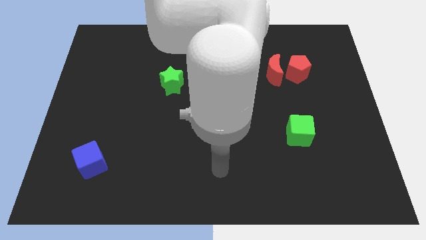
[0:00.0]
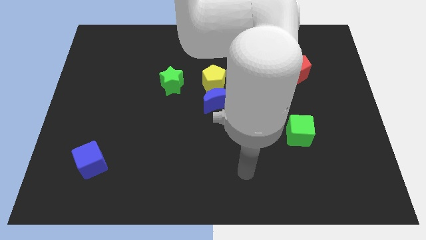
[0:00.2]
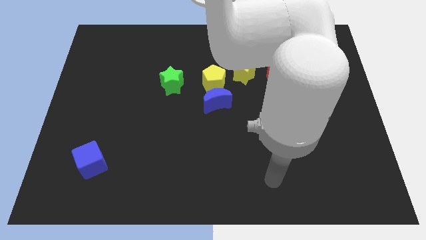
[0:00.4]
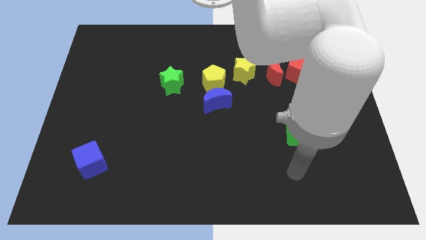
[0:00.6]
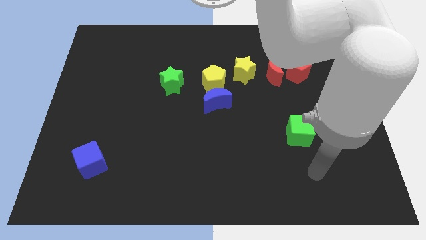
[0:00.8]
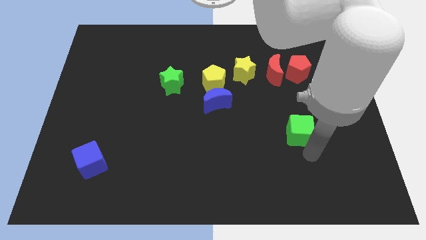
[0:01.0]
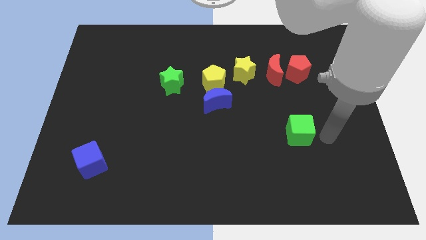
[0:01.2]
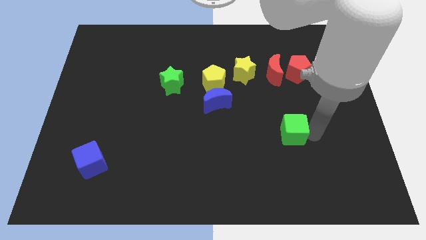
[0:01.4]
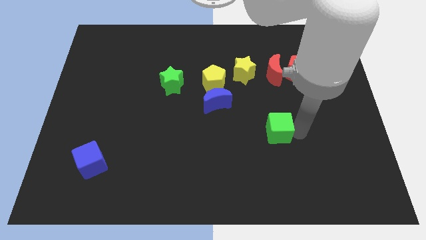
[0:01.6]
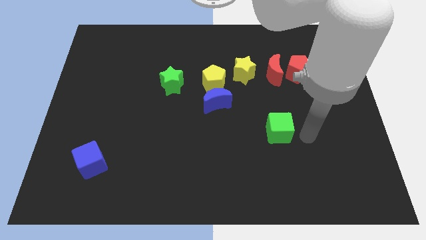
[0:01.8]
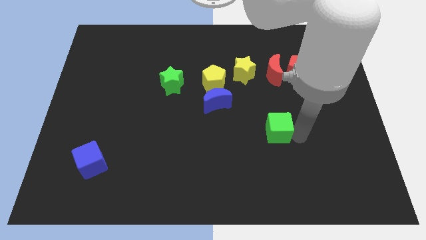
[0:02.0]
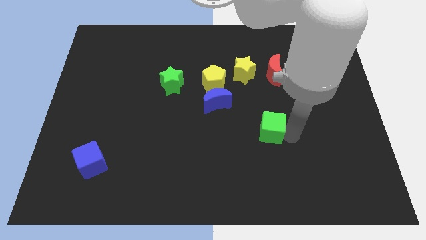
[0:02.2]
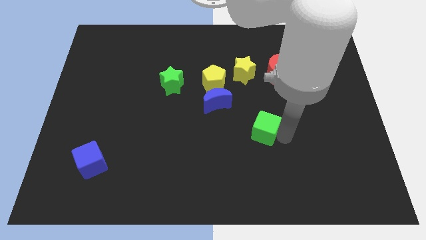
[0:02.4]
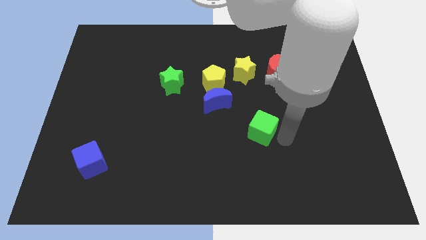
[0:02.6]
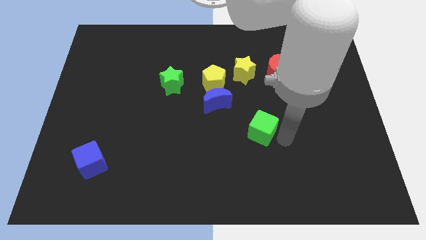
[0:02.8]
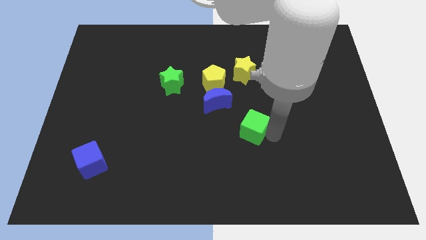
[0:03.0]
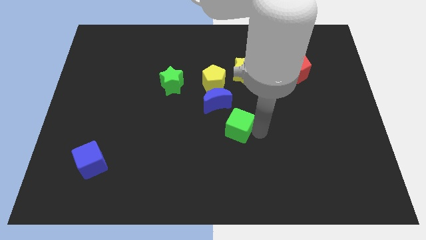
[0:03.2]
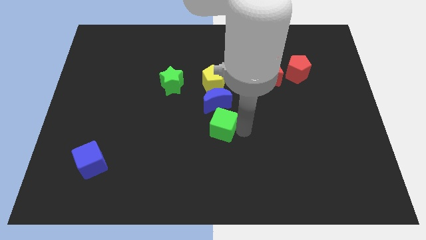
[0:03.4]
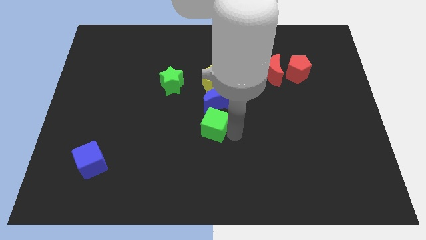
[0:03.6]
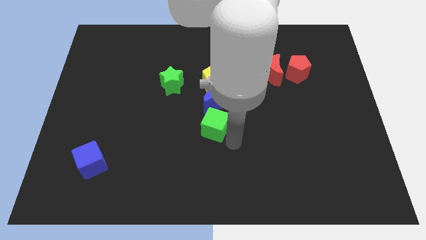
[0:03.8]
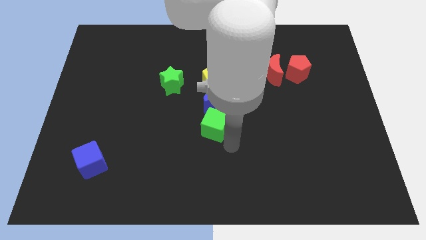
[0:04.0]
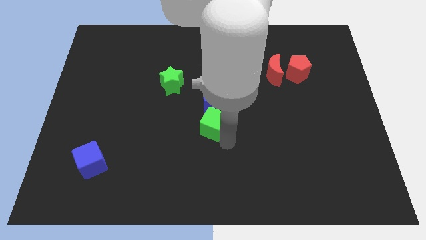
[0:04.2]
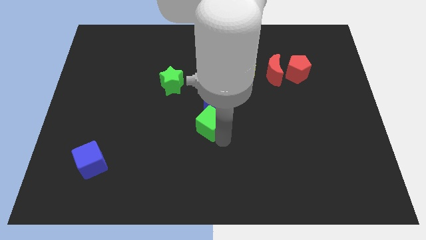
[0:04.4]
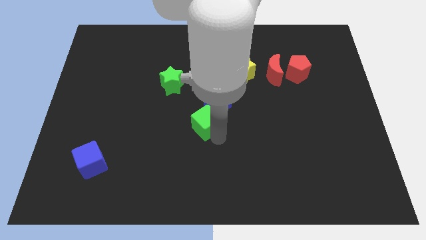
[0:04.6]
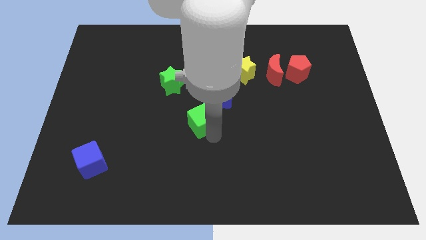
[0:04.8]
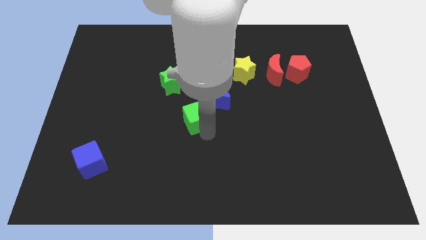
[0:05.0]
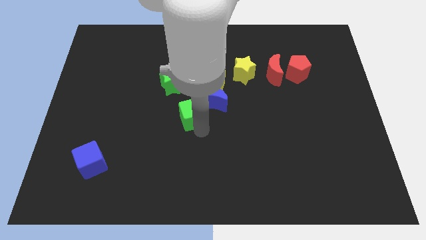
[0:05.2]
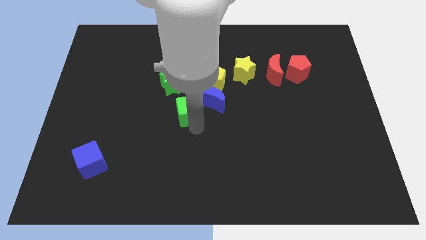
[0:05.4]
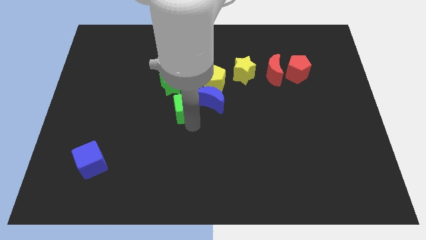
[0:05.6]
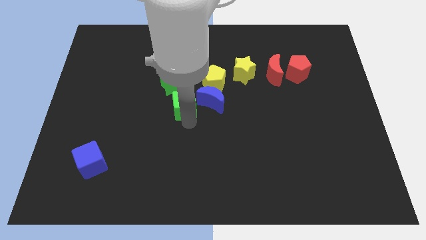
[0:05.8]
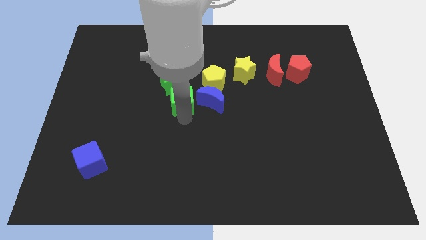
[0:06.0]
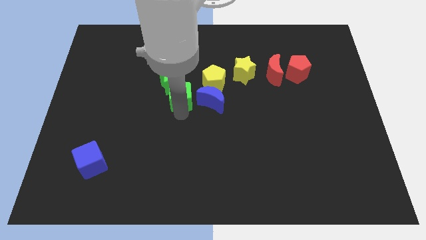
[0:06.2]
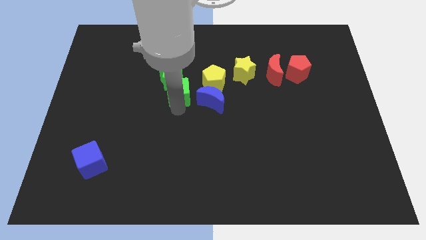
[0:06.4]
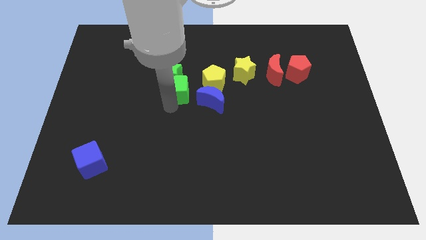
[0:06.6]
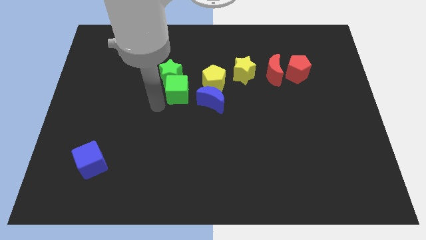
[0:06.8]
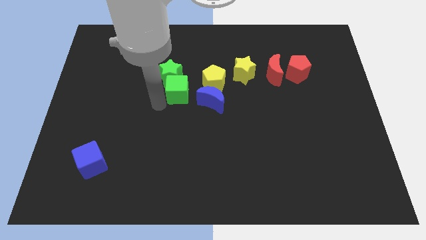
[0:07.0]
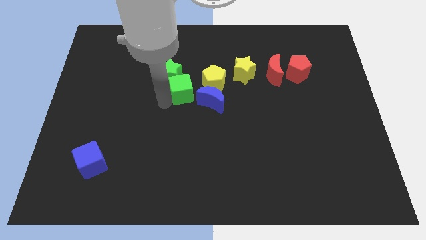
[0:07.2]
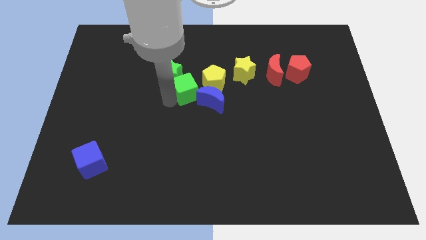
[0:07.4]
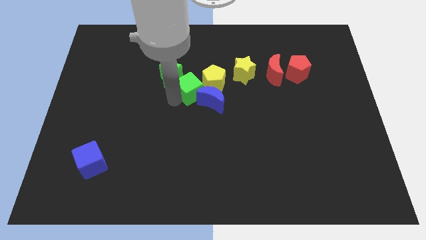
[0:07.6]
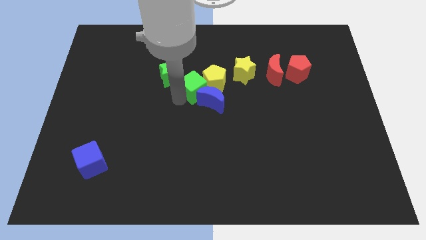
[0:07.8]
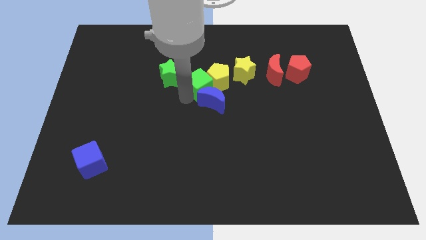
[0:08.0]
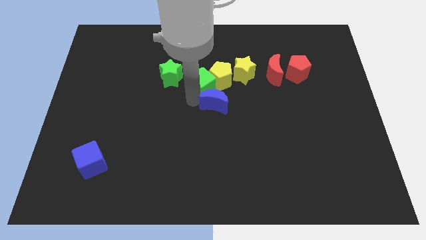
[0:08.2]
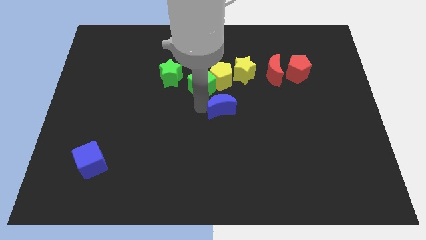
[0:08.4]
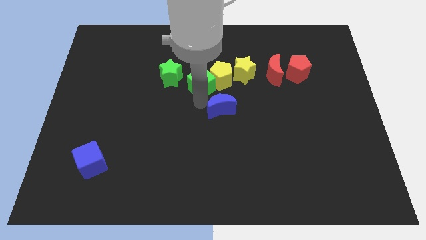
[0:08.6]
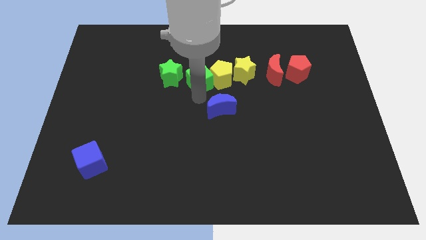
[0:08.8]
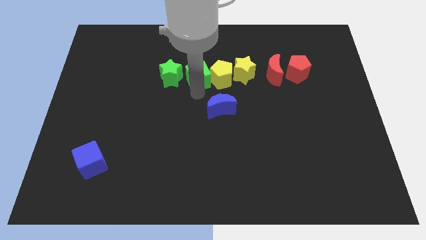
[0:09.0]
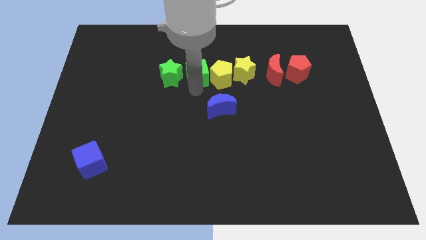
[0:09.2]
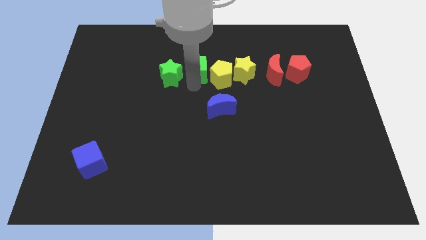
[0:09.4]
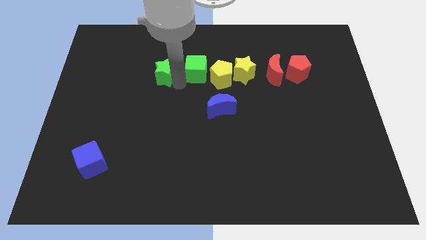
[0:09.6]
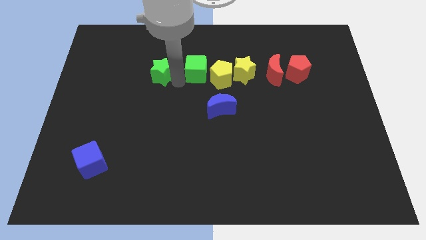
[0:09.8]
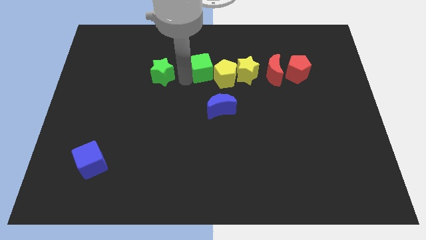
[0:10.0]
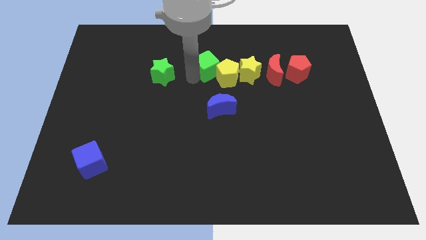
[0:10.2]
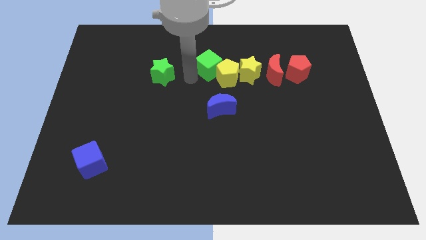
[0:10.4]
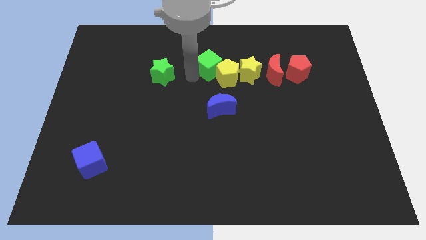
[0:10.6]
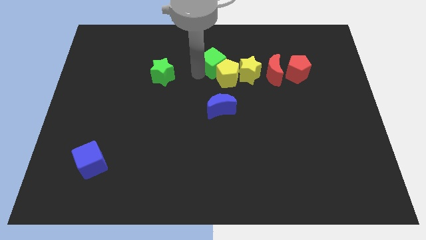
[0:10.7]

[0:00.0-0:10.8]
push the green cube to the top left side of the yellow star

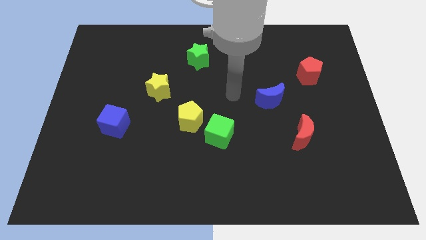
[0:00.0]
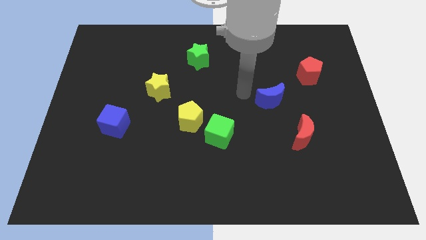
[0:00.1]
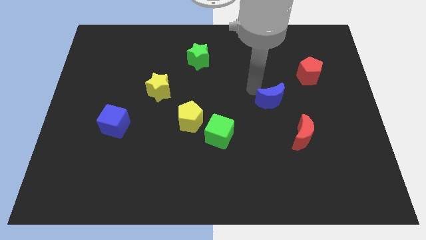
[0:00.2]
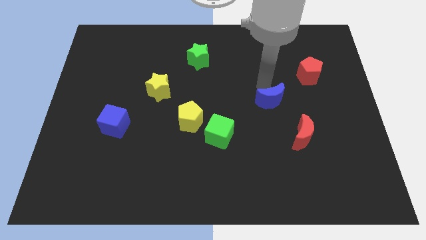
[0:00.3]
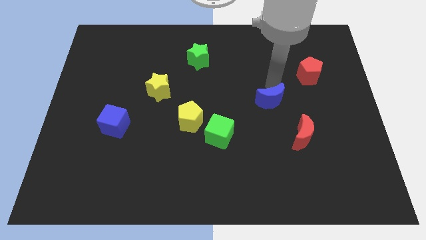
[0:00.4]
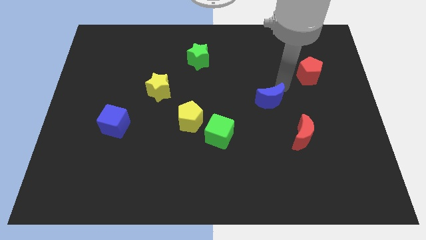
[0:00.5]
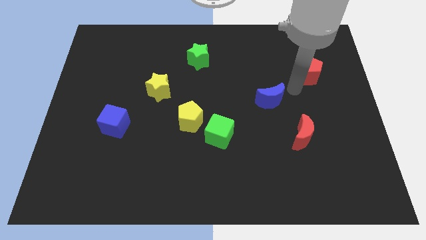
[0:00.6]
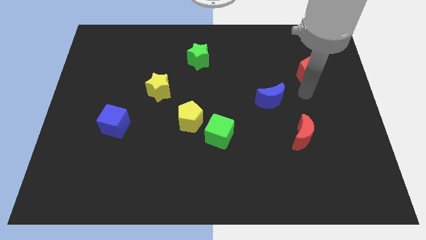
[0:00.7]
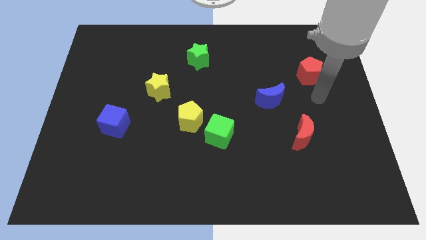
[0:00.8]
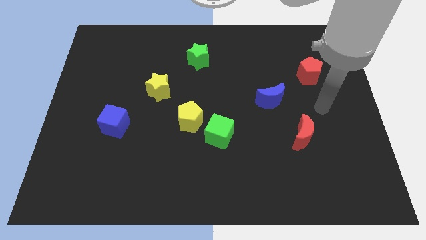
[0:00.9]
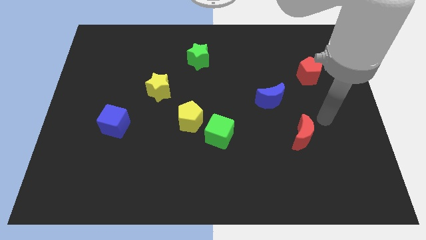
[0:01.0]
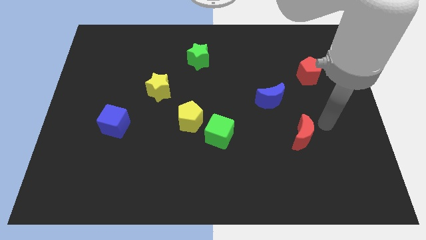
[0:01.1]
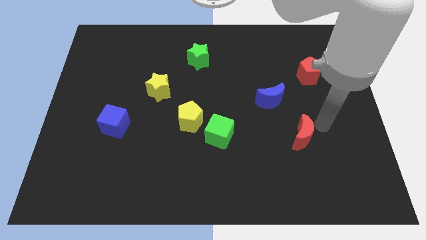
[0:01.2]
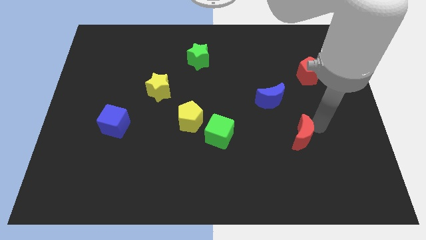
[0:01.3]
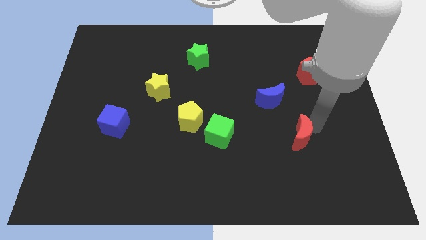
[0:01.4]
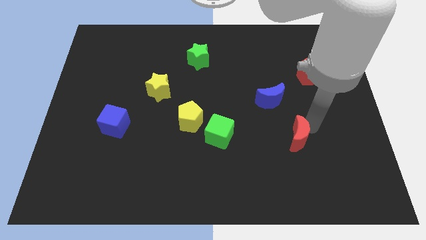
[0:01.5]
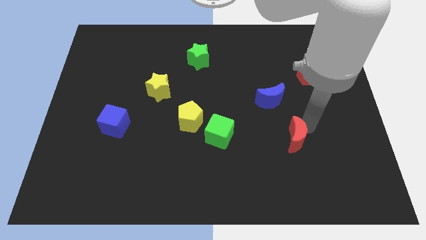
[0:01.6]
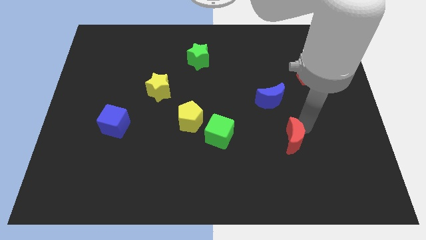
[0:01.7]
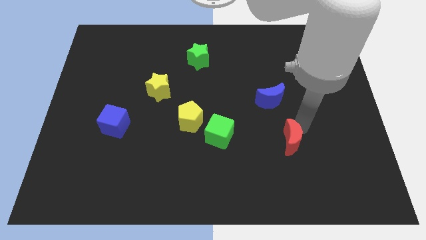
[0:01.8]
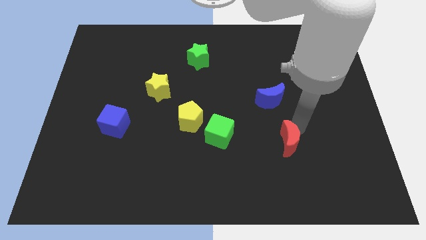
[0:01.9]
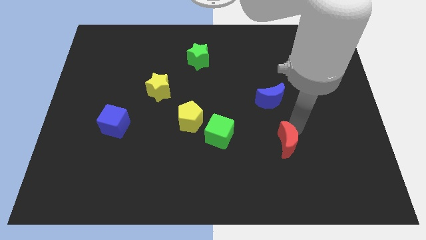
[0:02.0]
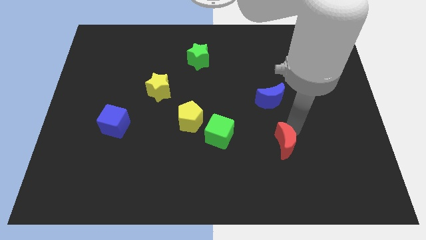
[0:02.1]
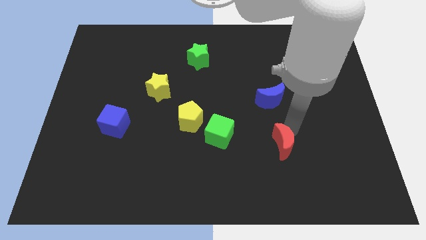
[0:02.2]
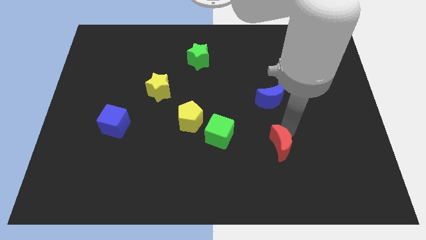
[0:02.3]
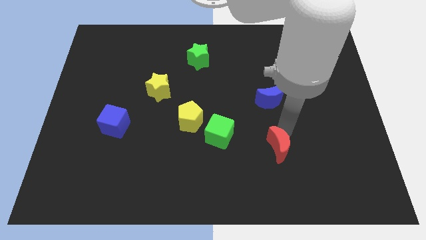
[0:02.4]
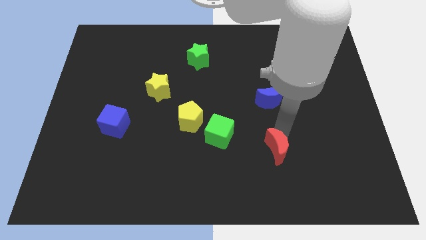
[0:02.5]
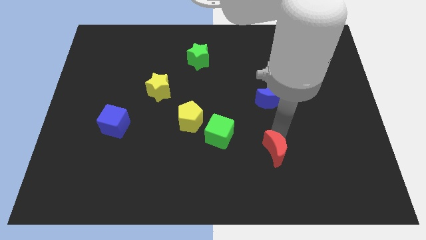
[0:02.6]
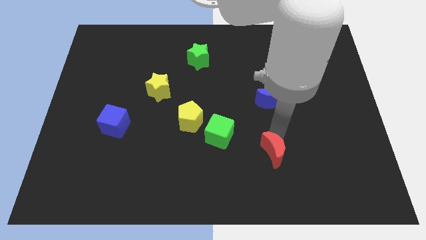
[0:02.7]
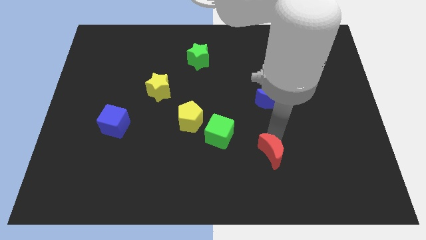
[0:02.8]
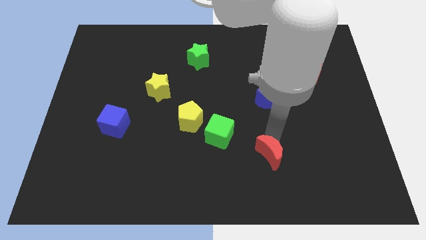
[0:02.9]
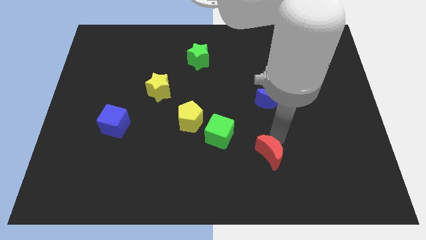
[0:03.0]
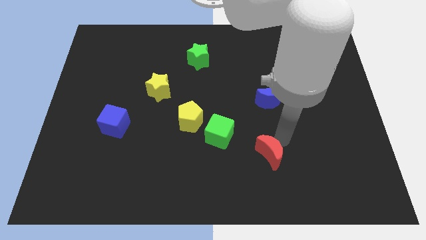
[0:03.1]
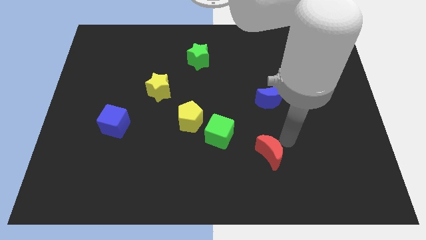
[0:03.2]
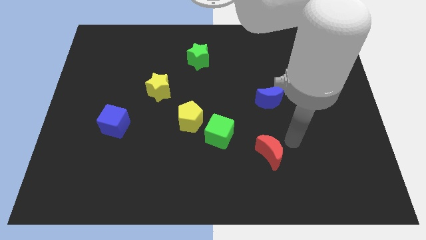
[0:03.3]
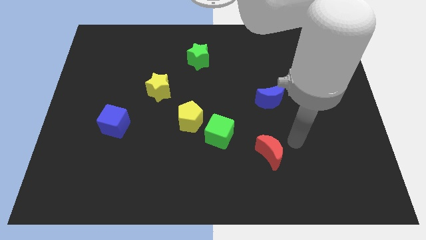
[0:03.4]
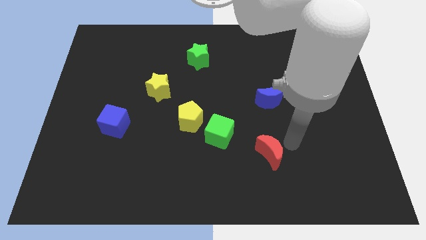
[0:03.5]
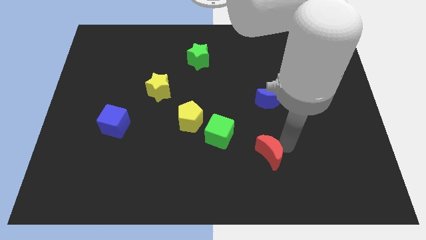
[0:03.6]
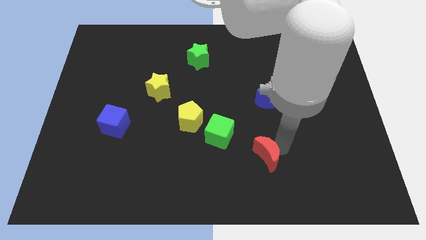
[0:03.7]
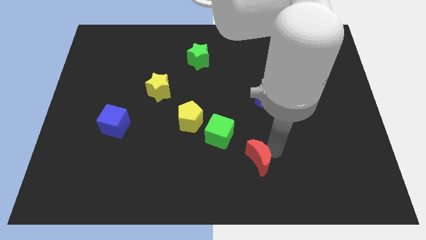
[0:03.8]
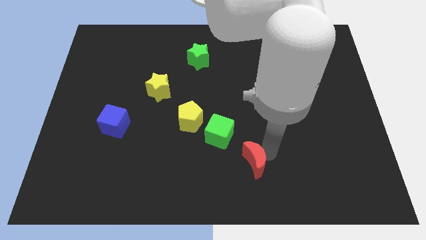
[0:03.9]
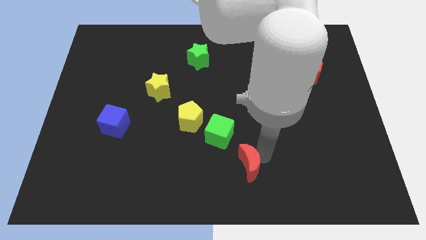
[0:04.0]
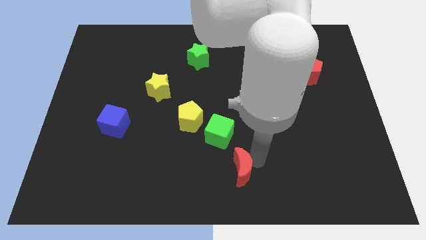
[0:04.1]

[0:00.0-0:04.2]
slide the red moon to the bottom of the green cube
